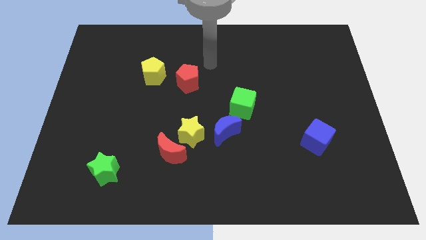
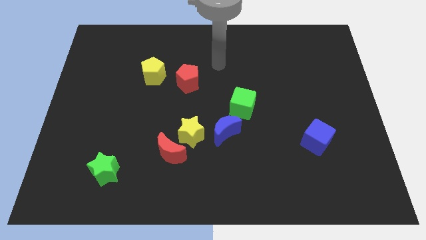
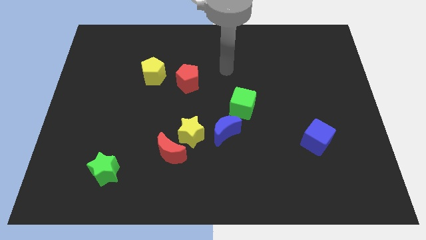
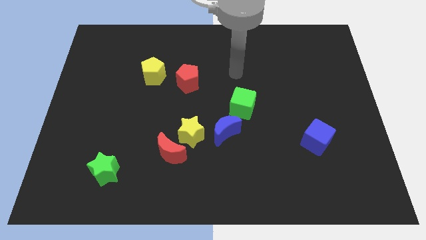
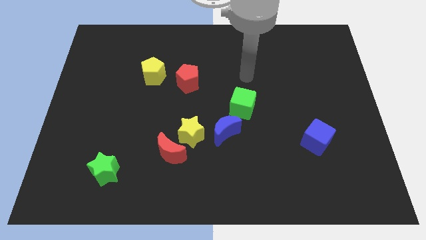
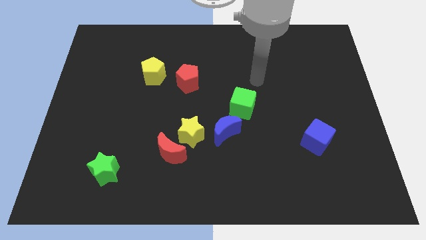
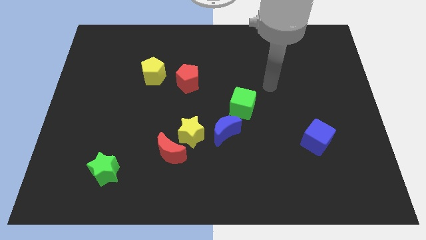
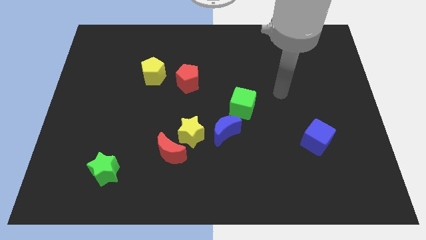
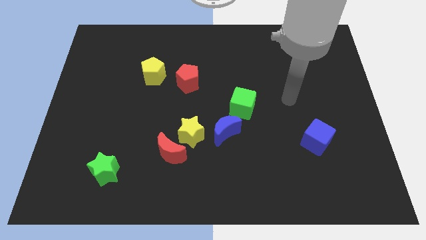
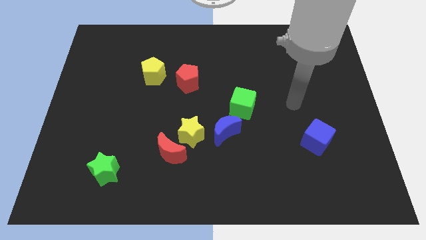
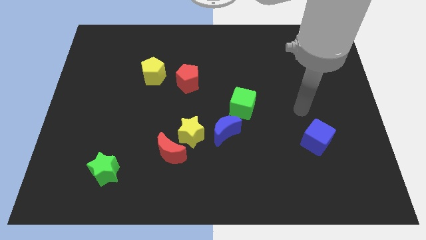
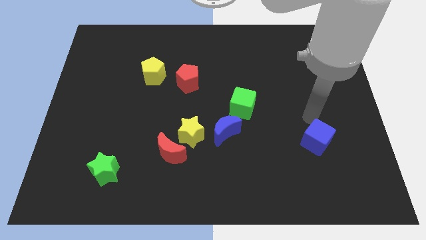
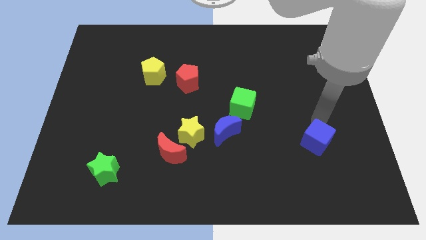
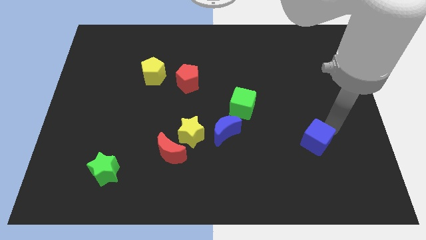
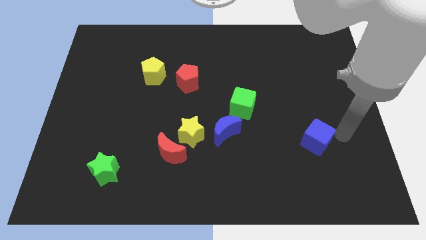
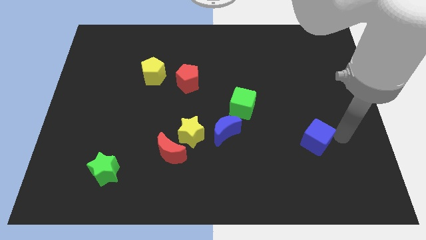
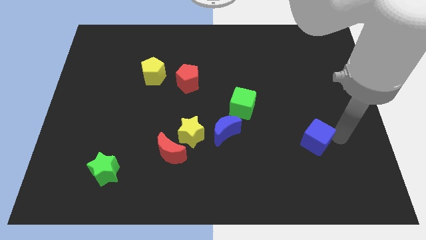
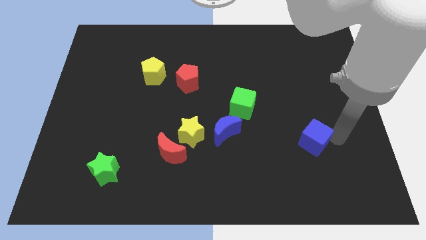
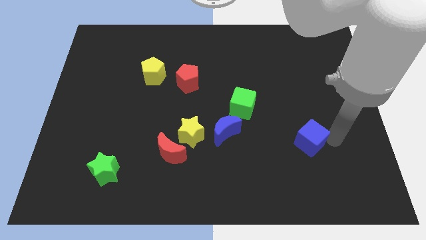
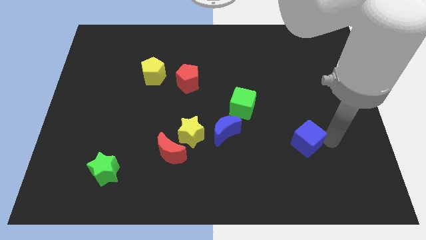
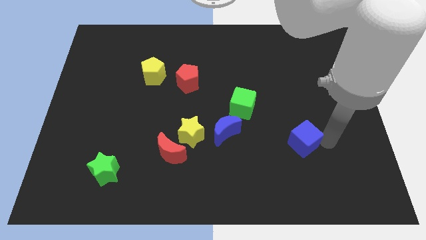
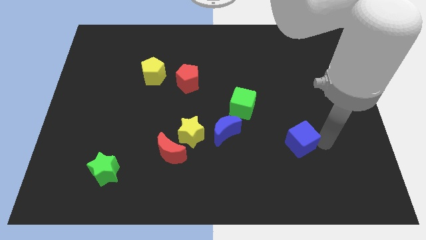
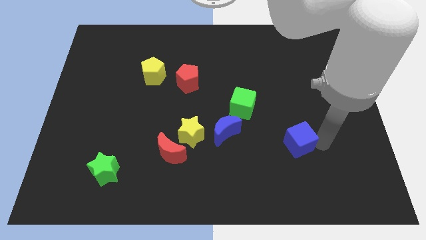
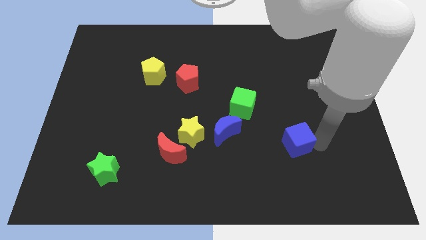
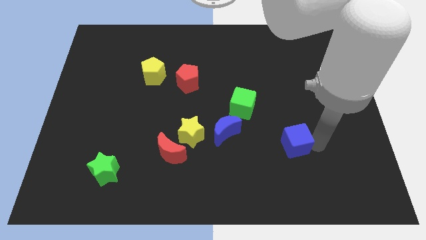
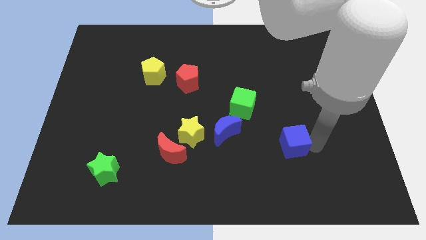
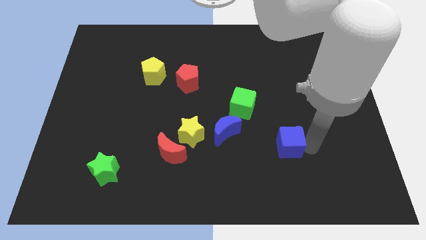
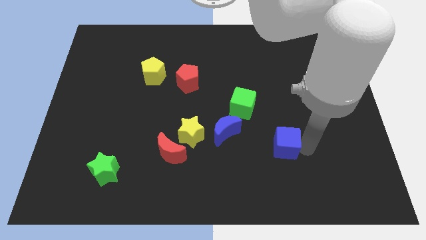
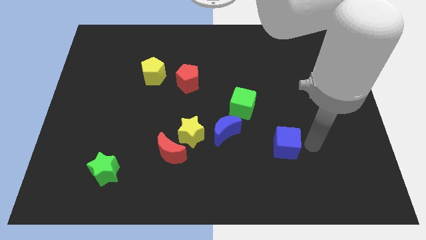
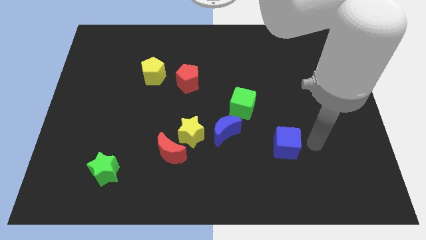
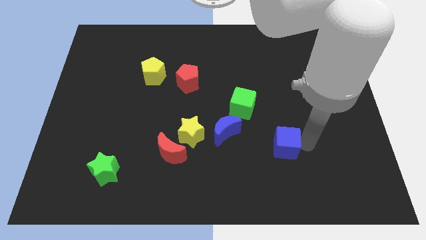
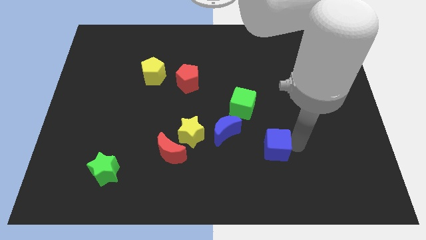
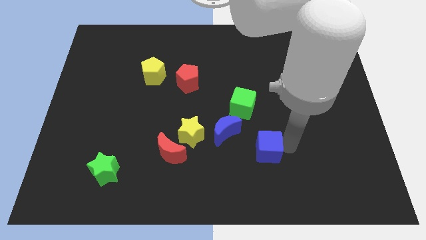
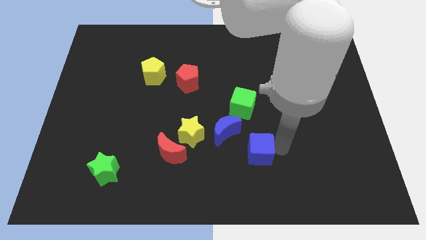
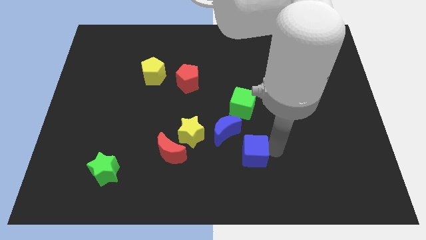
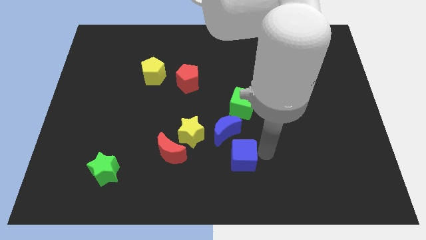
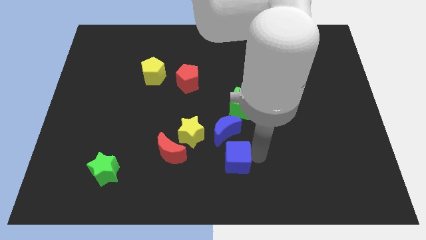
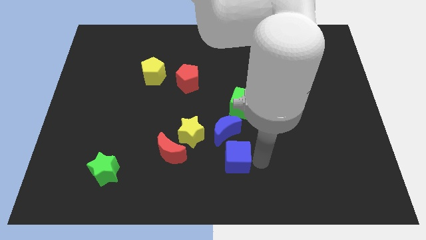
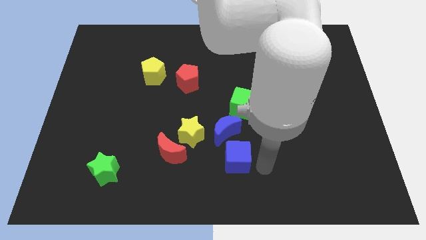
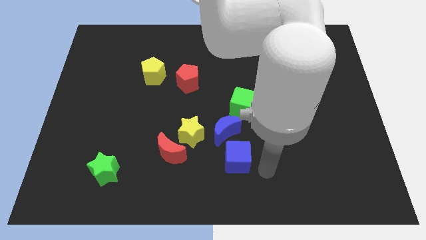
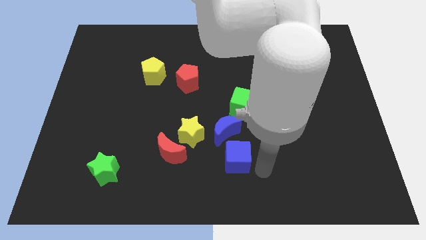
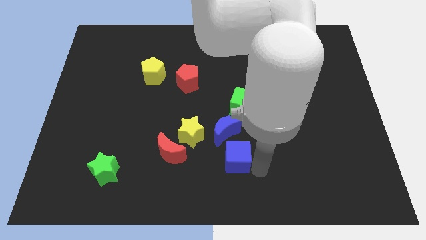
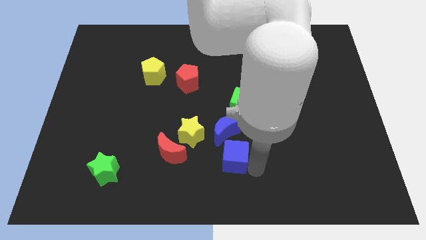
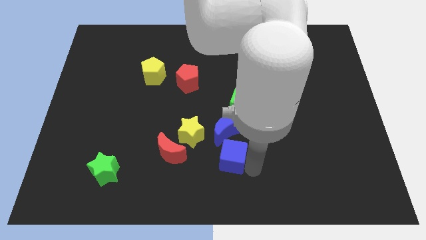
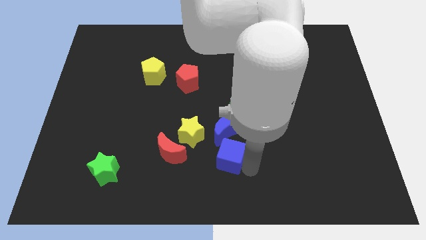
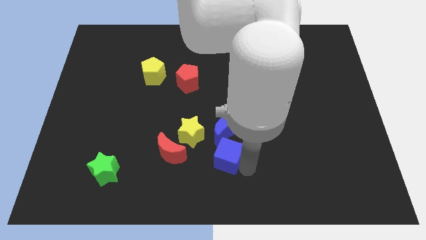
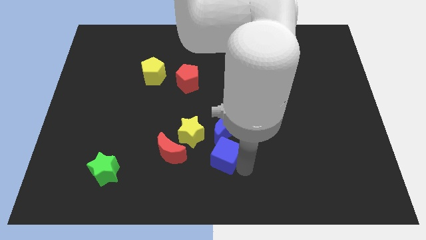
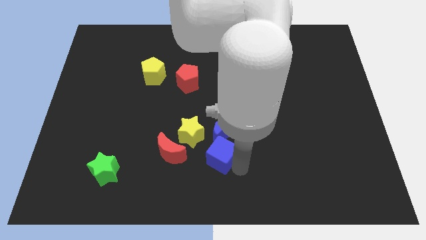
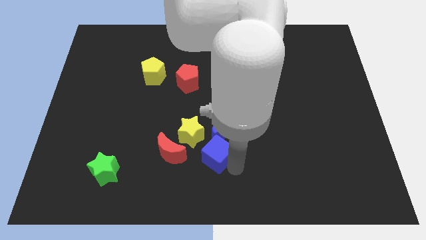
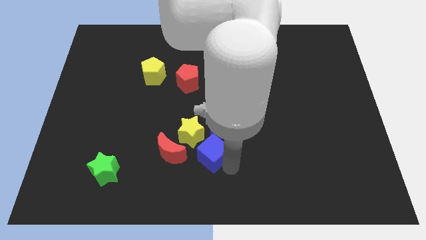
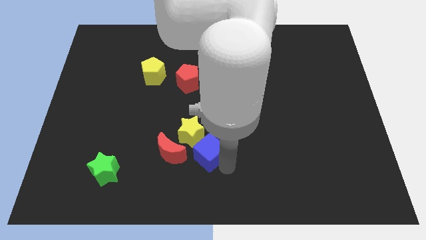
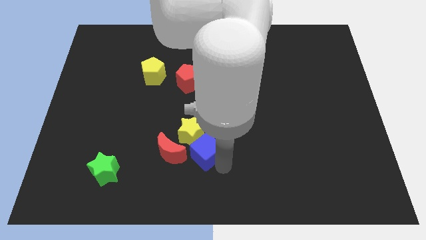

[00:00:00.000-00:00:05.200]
push the blue cube to the yellow star

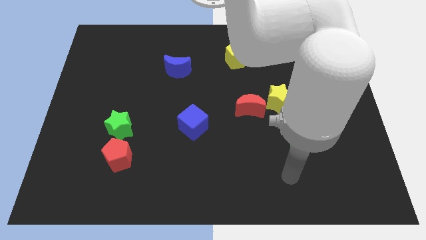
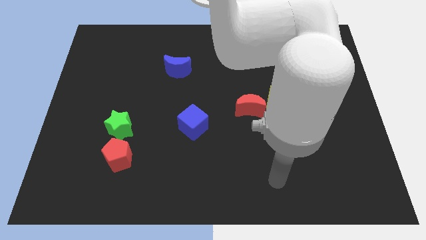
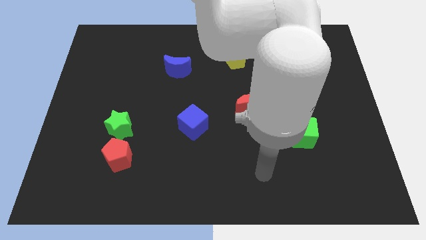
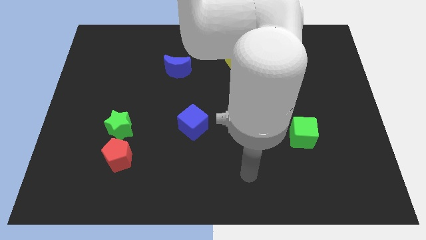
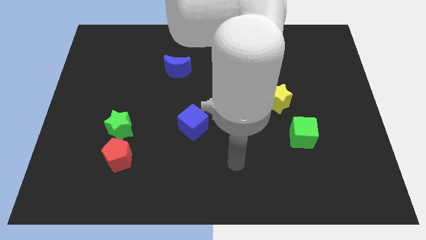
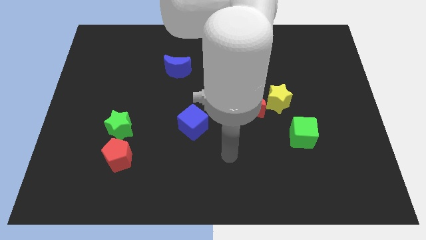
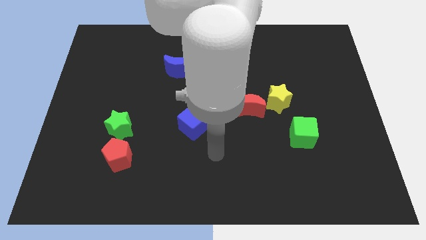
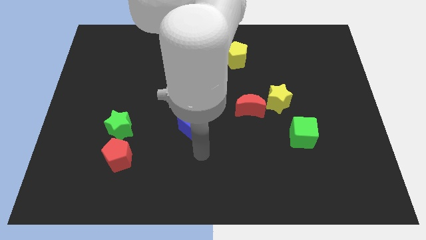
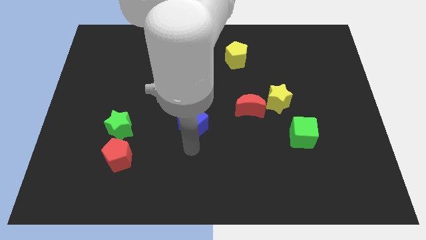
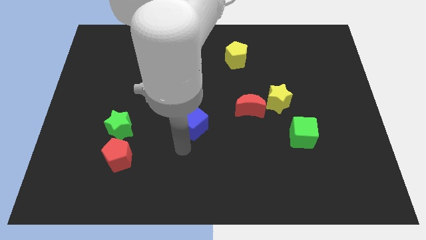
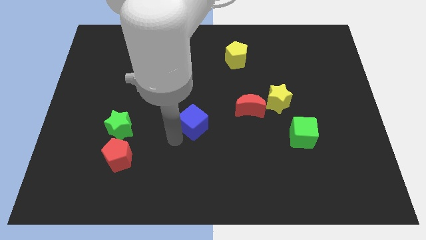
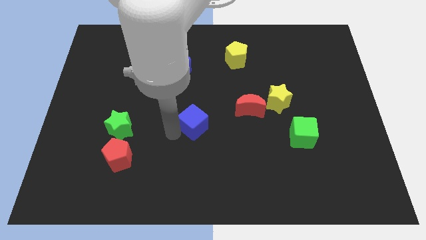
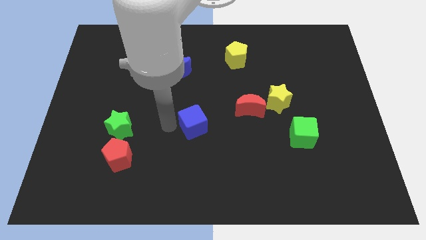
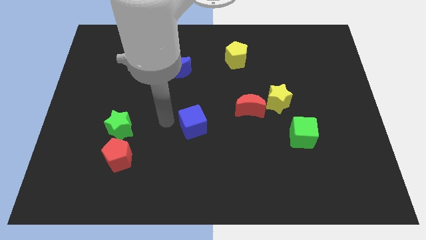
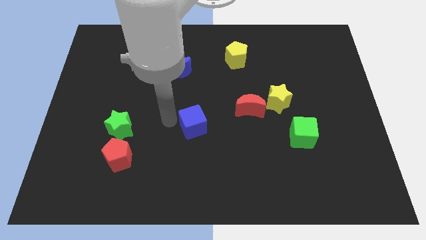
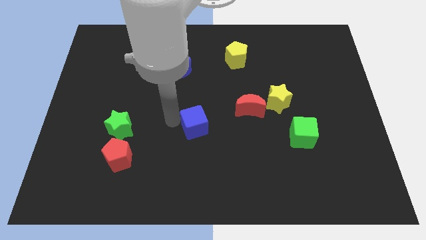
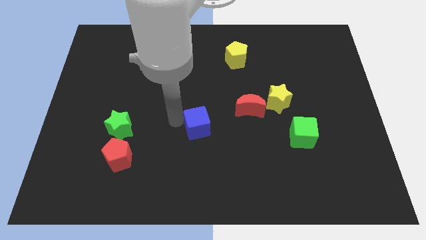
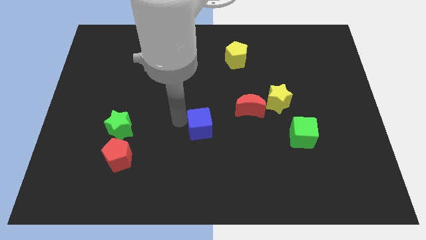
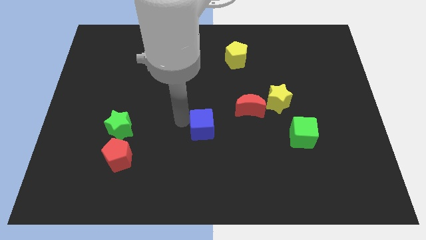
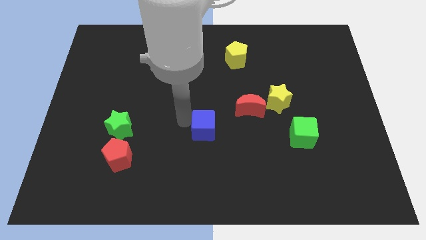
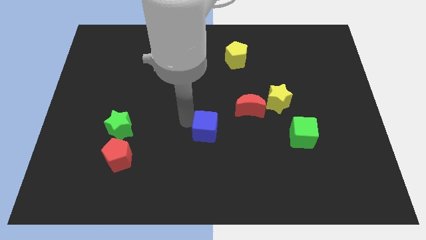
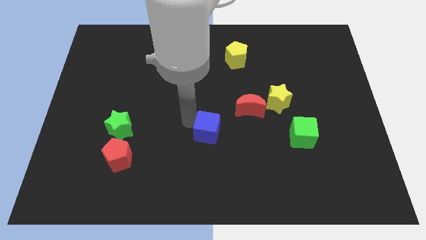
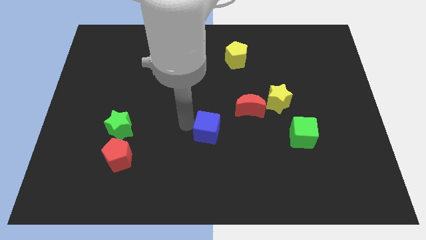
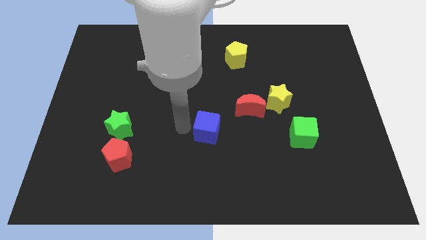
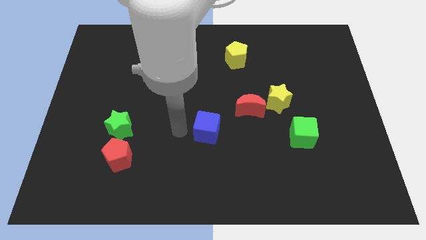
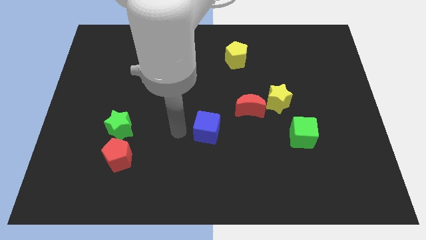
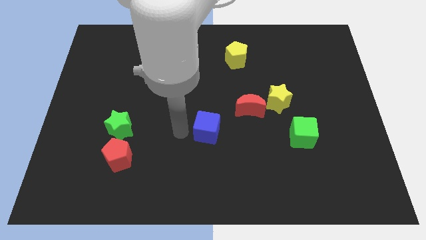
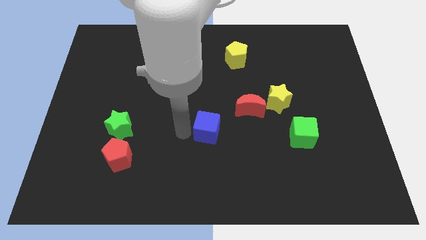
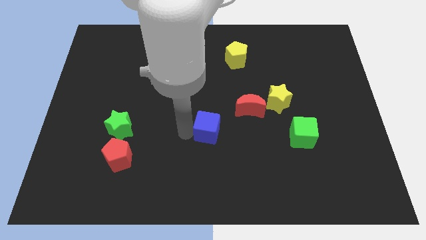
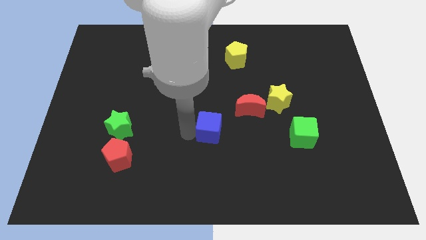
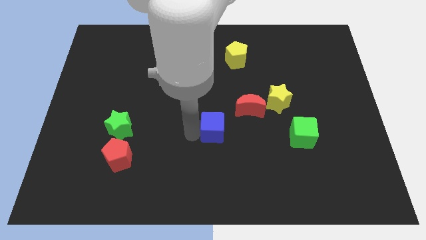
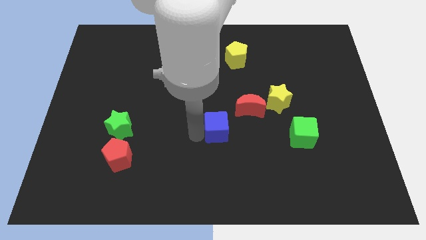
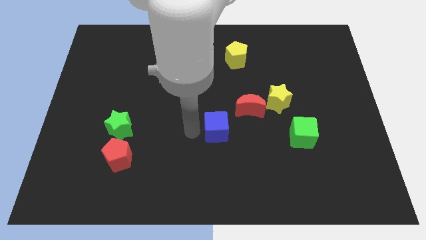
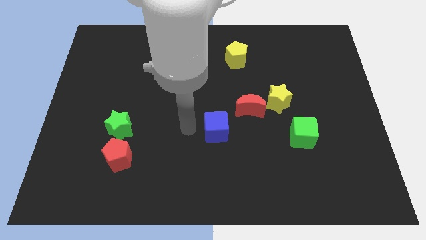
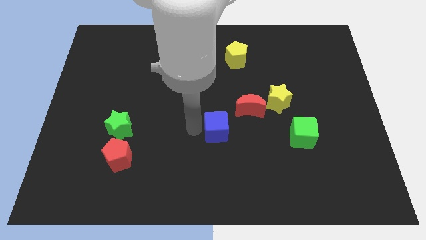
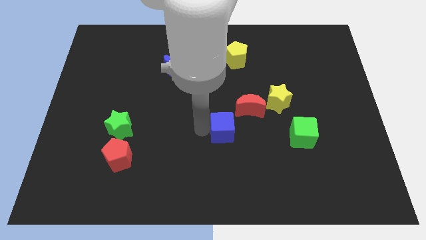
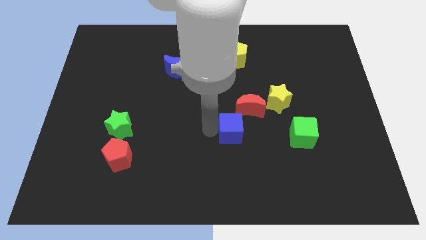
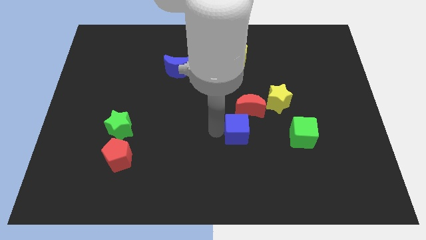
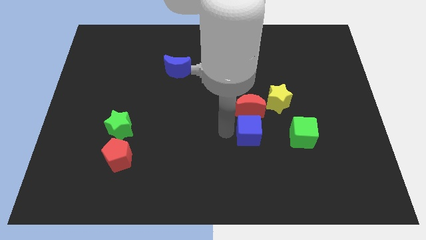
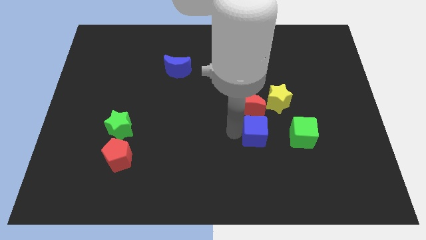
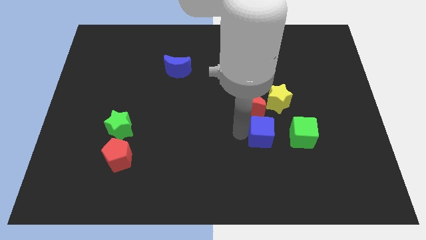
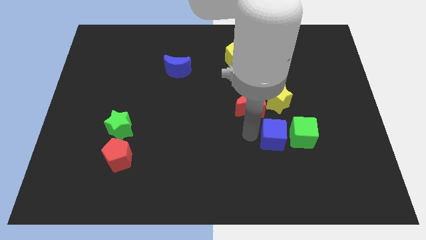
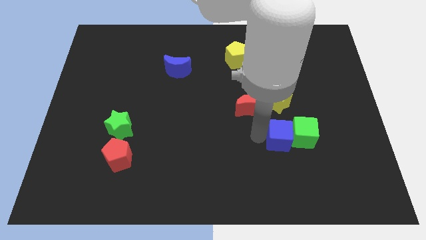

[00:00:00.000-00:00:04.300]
move the blue cube close to the green cube
